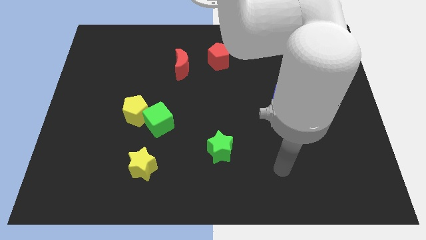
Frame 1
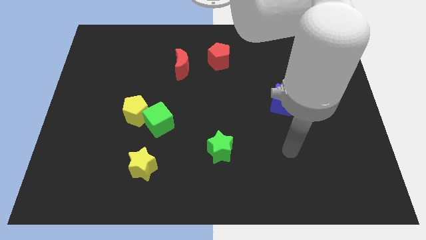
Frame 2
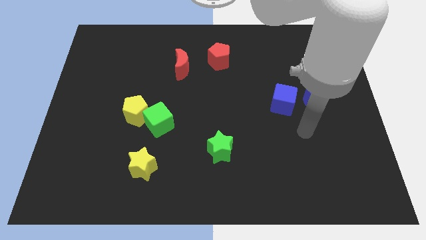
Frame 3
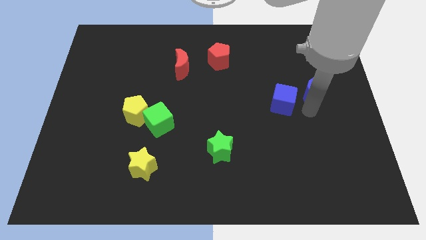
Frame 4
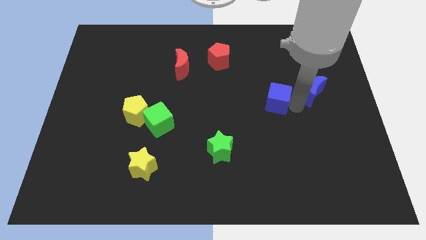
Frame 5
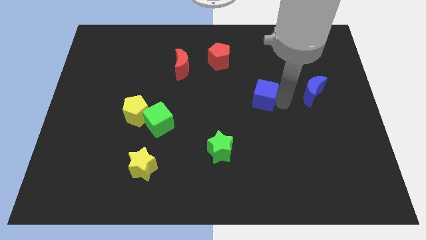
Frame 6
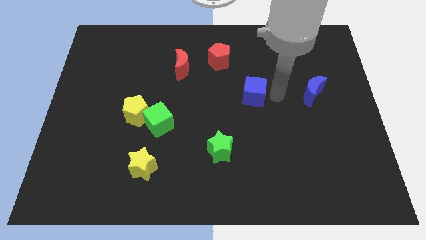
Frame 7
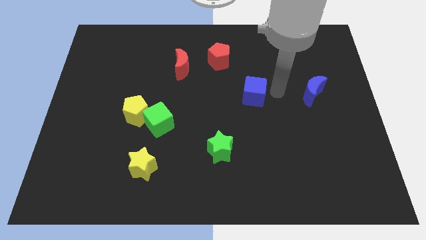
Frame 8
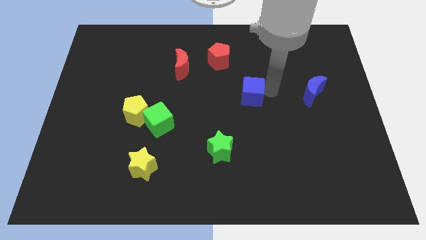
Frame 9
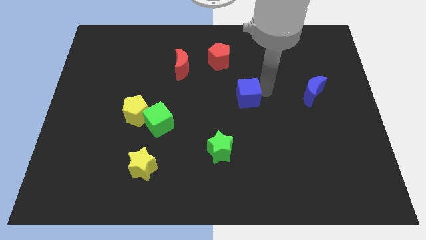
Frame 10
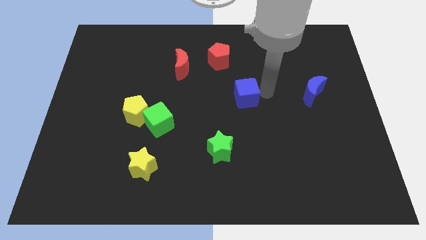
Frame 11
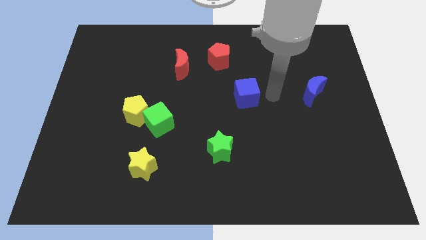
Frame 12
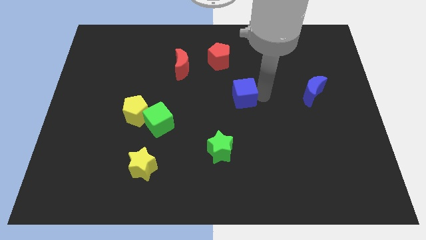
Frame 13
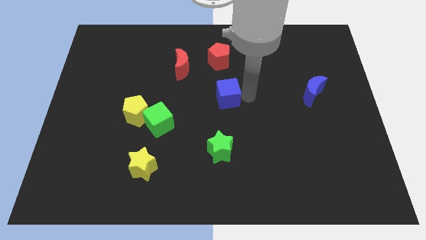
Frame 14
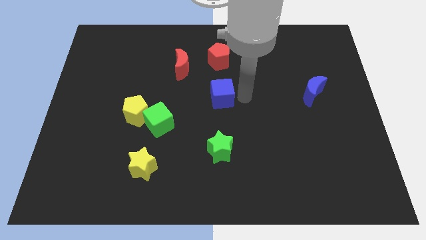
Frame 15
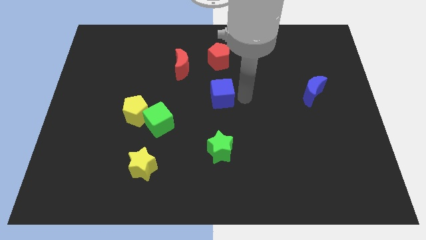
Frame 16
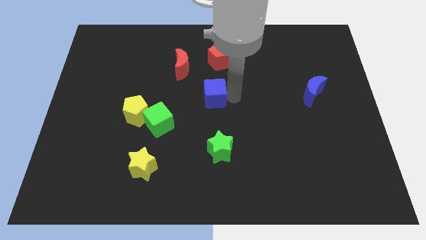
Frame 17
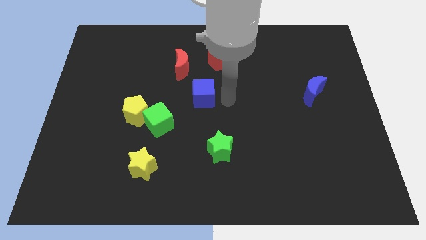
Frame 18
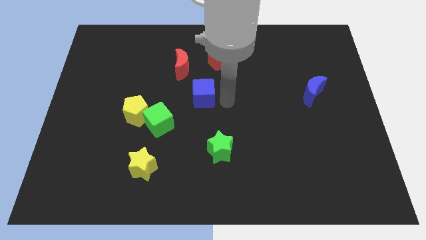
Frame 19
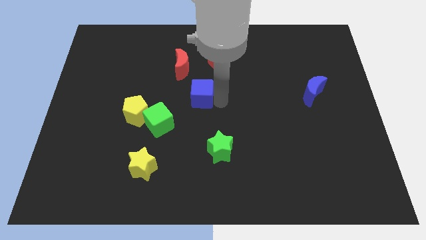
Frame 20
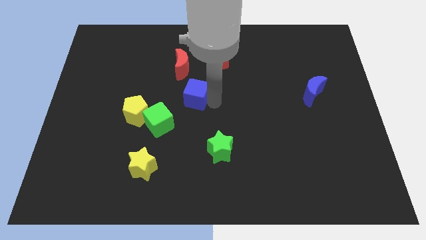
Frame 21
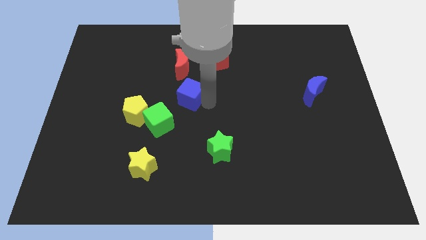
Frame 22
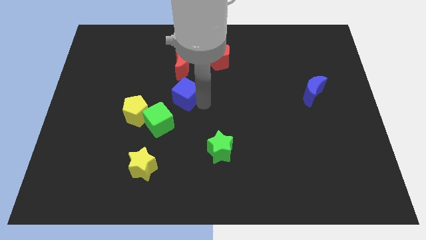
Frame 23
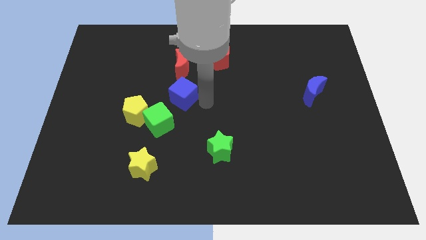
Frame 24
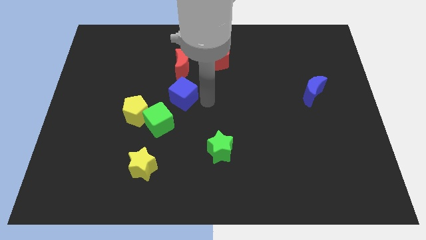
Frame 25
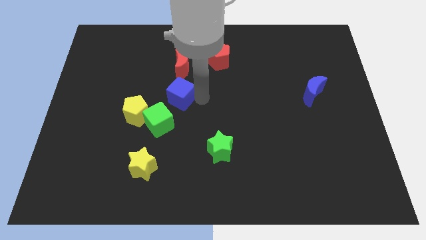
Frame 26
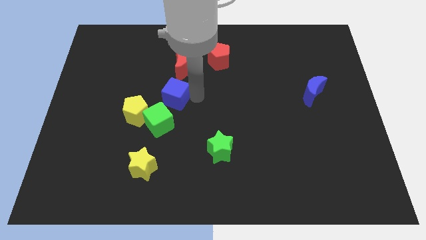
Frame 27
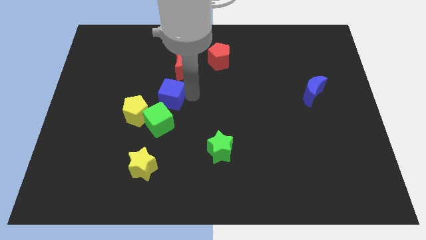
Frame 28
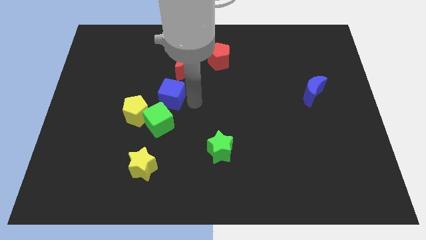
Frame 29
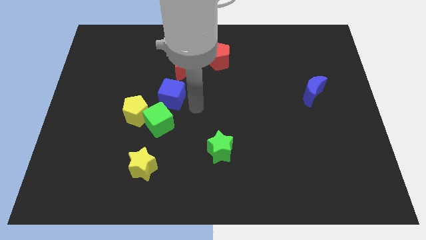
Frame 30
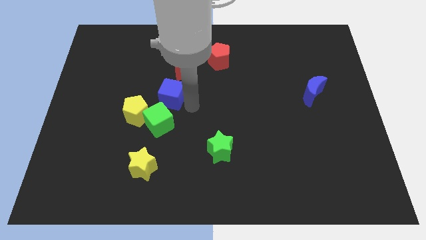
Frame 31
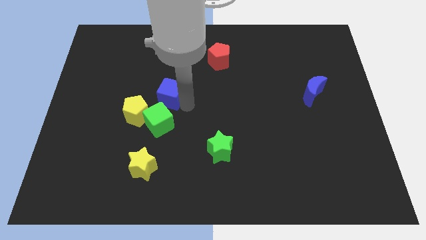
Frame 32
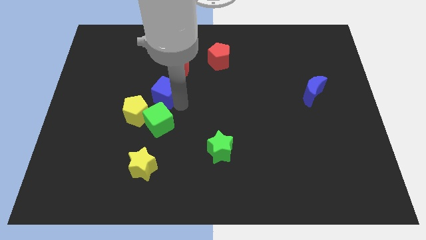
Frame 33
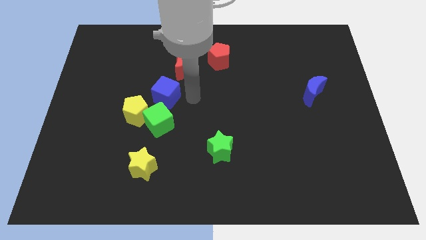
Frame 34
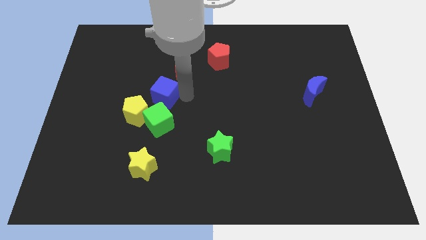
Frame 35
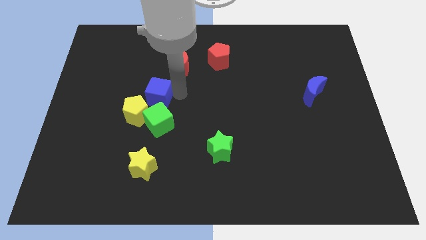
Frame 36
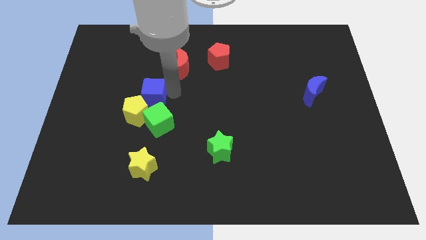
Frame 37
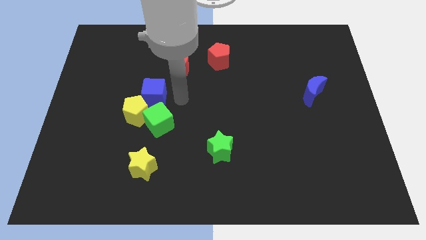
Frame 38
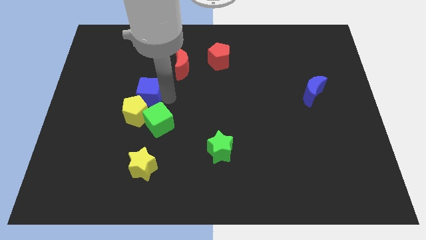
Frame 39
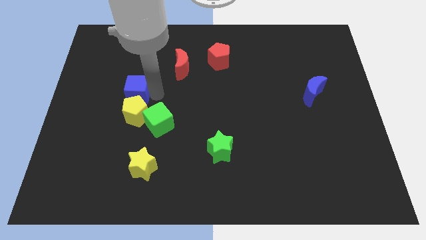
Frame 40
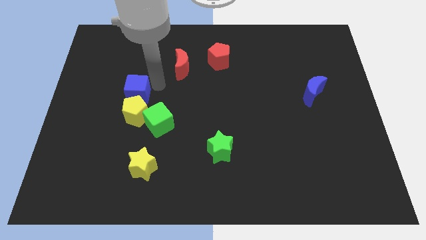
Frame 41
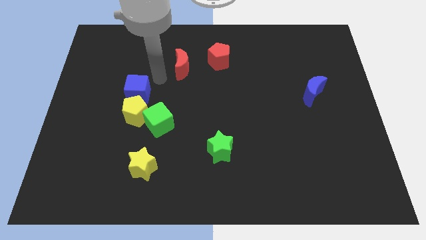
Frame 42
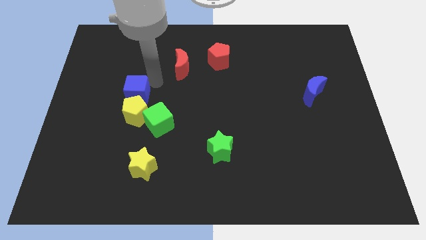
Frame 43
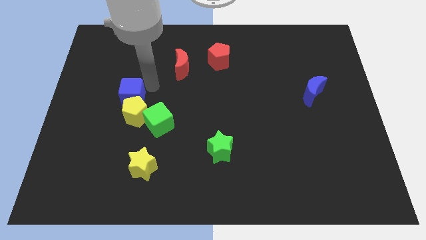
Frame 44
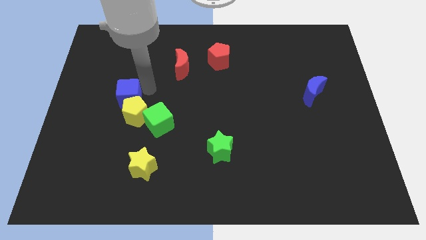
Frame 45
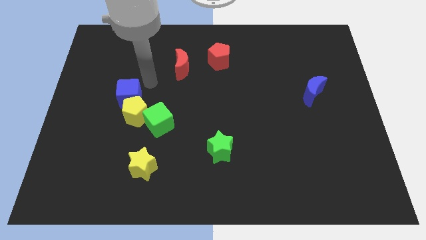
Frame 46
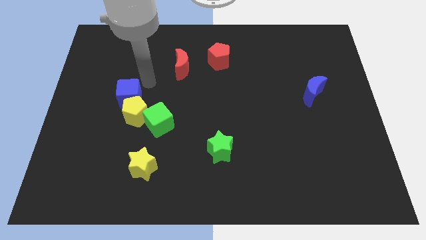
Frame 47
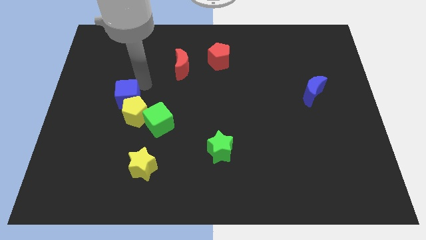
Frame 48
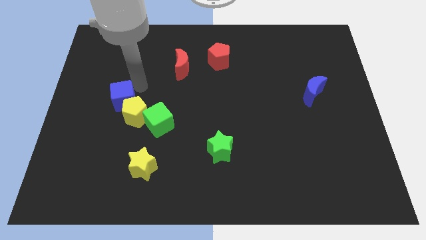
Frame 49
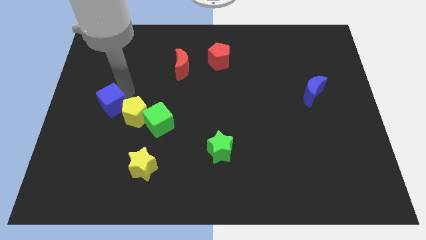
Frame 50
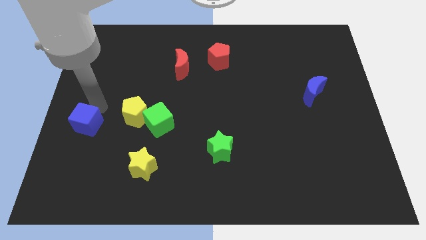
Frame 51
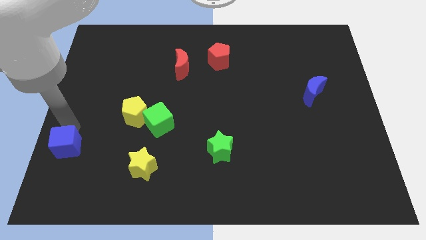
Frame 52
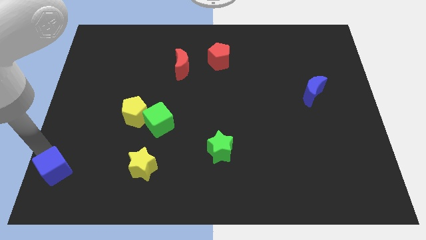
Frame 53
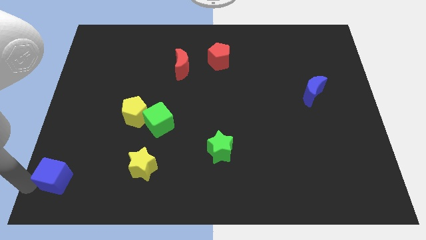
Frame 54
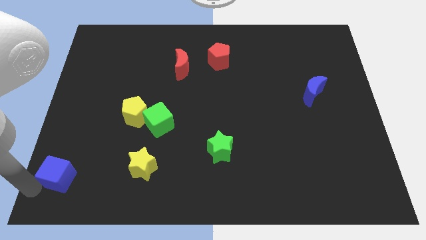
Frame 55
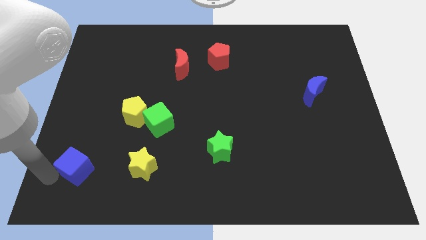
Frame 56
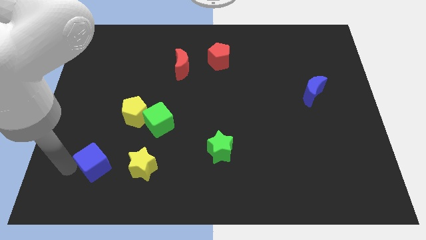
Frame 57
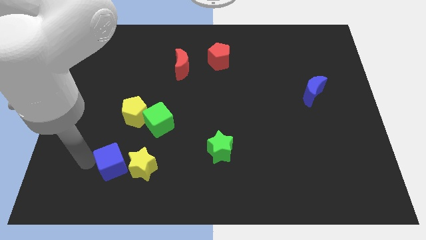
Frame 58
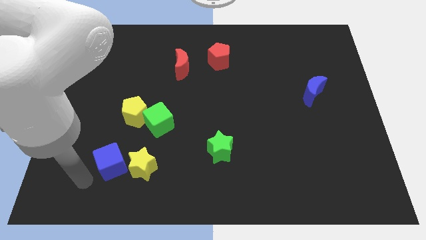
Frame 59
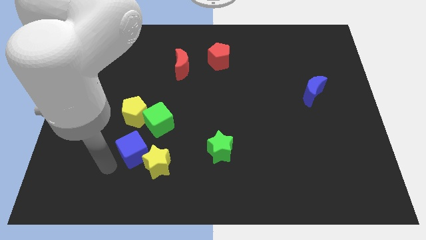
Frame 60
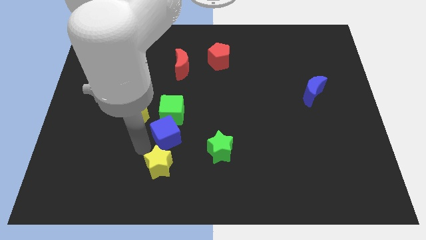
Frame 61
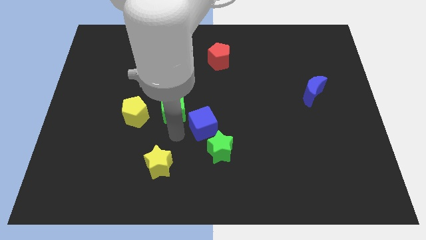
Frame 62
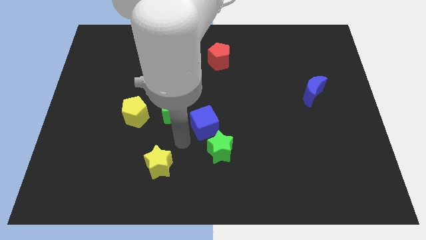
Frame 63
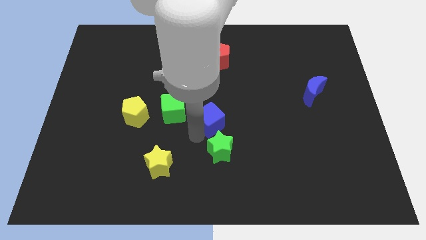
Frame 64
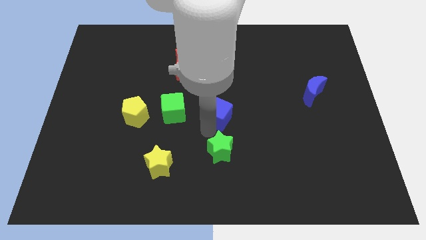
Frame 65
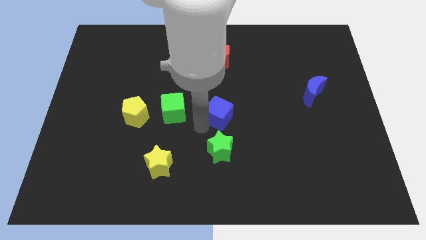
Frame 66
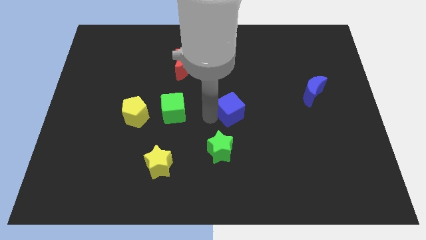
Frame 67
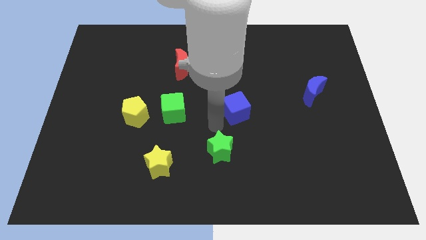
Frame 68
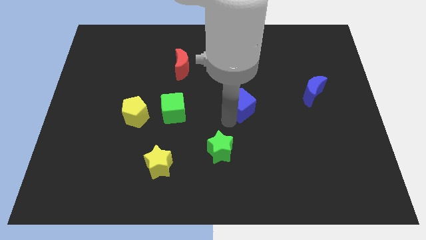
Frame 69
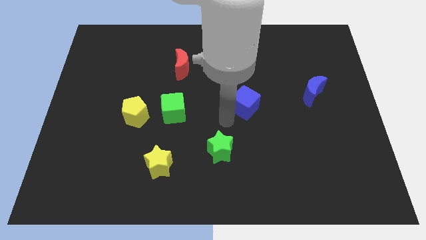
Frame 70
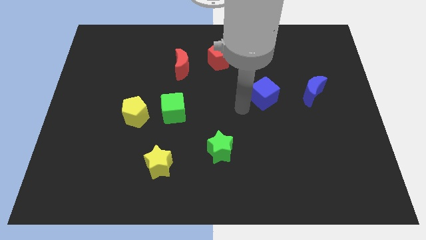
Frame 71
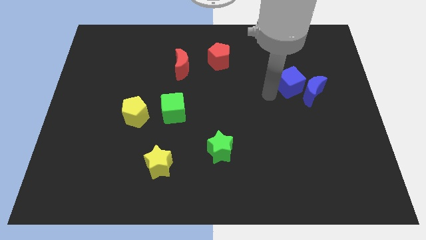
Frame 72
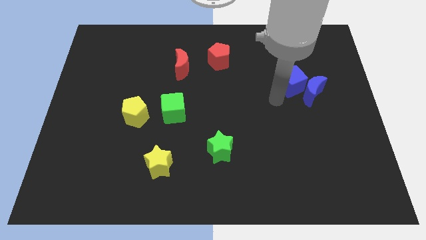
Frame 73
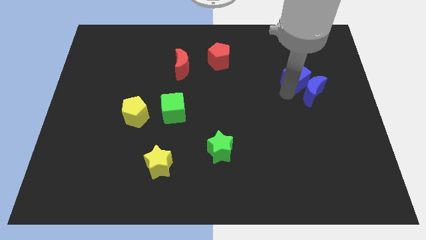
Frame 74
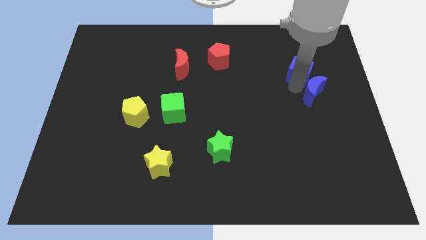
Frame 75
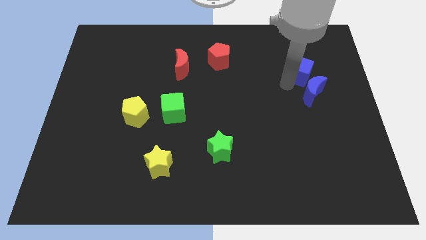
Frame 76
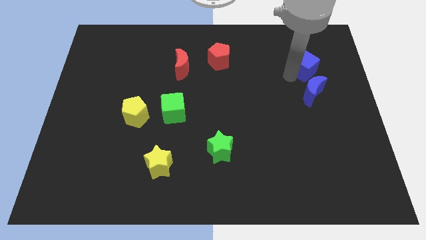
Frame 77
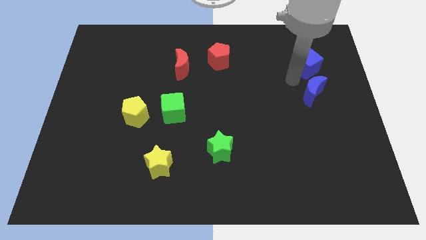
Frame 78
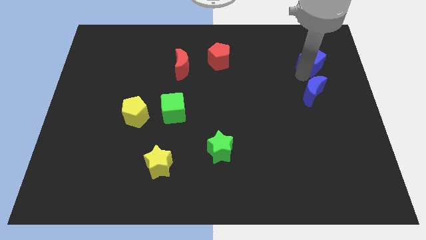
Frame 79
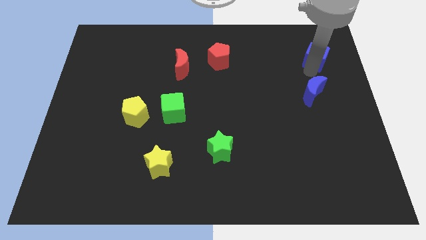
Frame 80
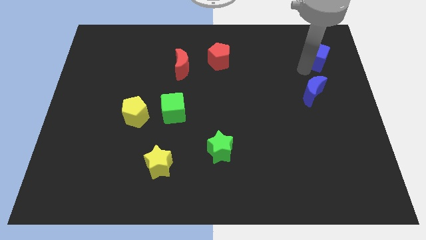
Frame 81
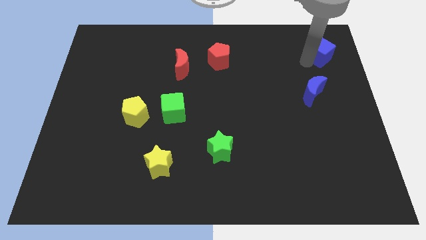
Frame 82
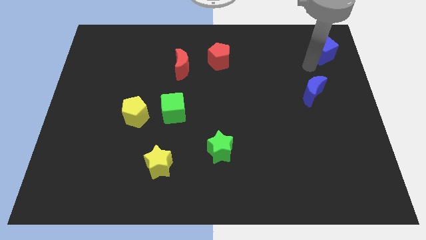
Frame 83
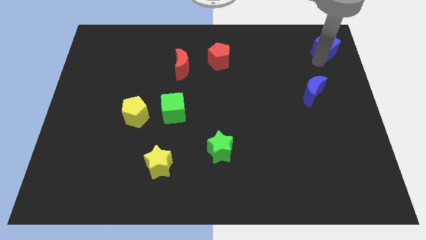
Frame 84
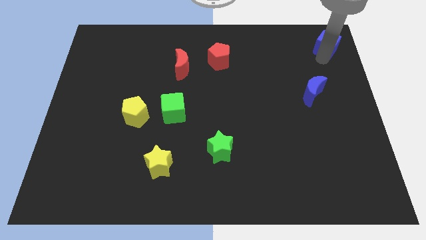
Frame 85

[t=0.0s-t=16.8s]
move the blue cube to the top right corner
